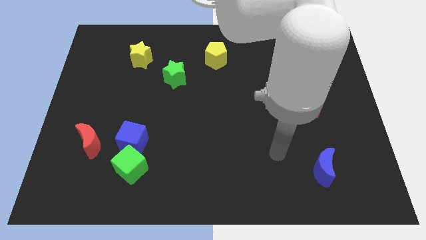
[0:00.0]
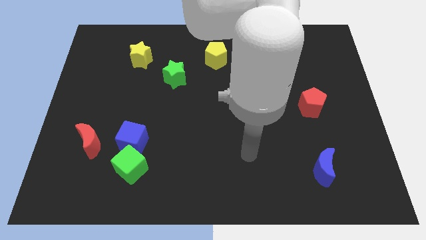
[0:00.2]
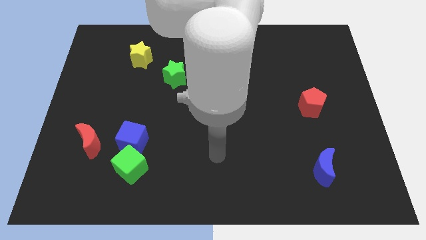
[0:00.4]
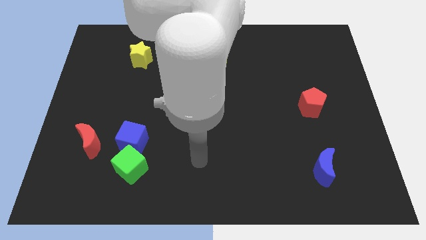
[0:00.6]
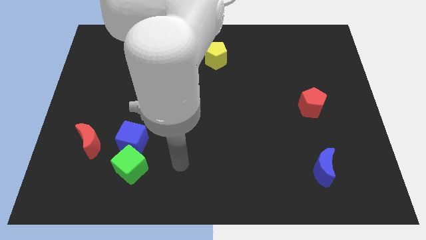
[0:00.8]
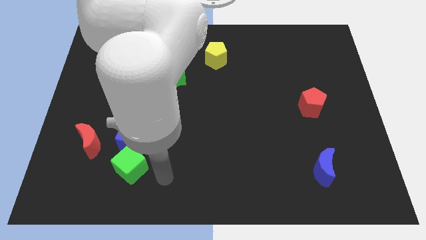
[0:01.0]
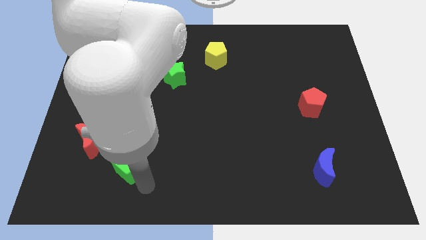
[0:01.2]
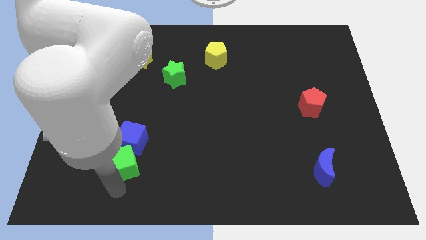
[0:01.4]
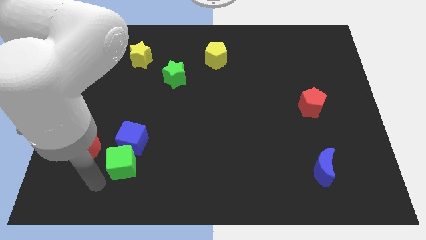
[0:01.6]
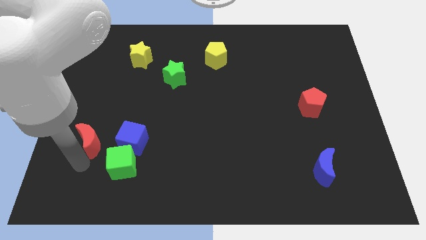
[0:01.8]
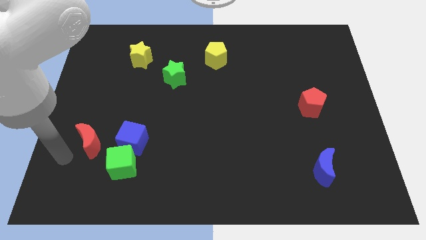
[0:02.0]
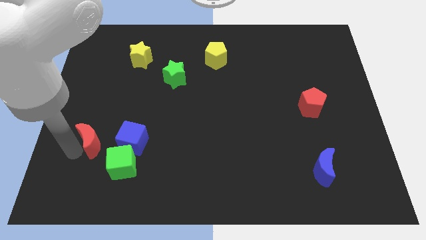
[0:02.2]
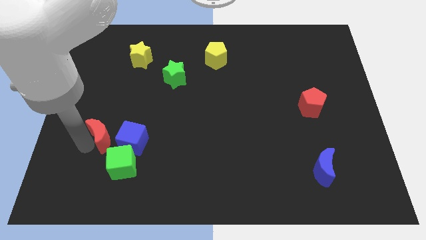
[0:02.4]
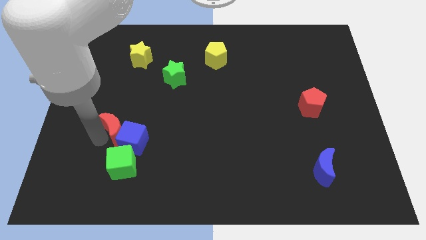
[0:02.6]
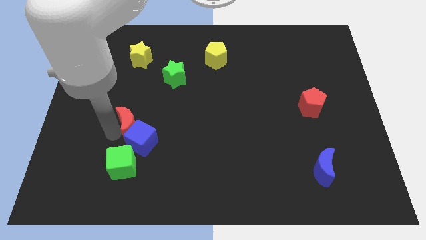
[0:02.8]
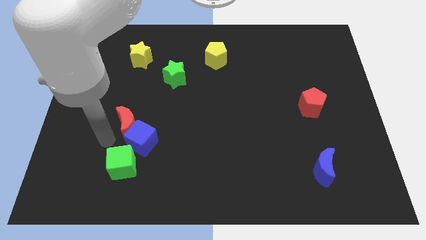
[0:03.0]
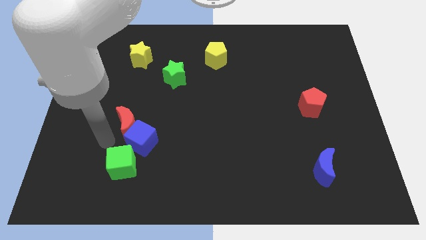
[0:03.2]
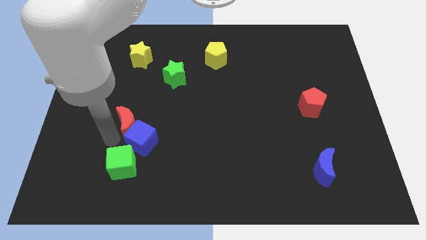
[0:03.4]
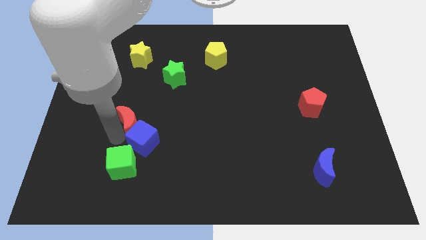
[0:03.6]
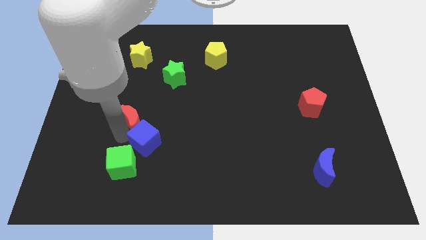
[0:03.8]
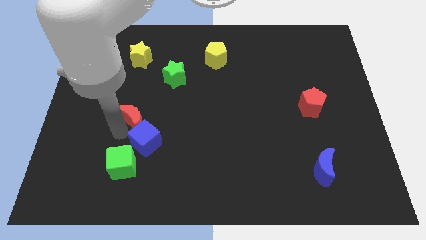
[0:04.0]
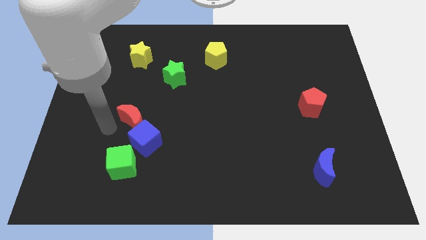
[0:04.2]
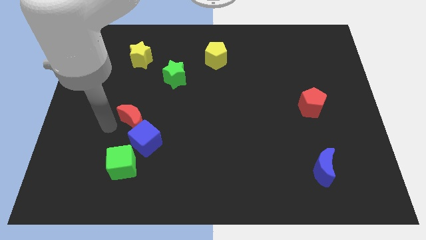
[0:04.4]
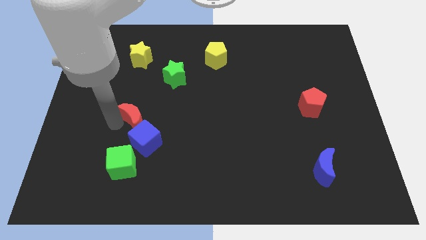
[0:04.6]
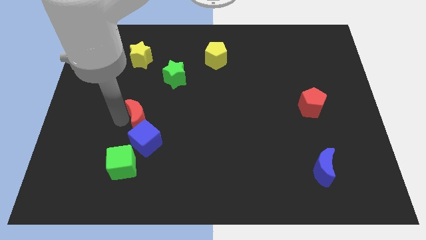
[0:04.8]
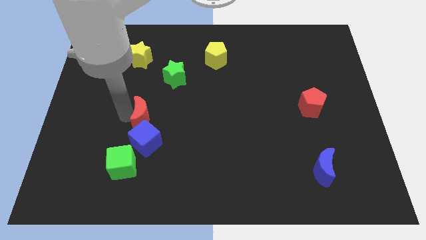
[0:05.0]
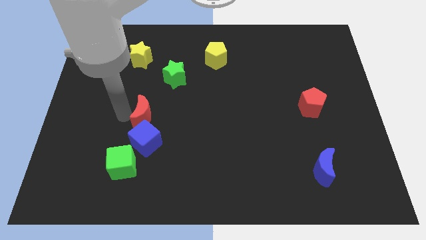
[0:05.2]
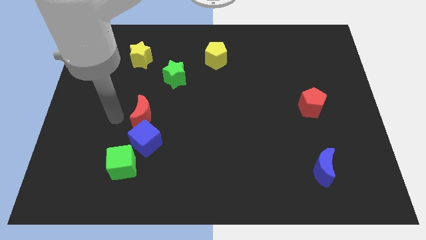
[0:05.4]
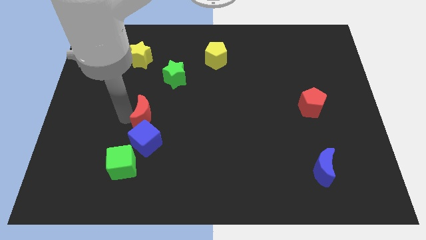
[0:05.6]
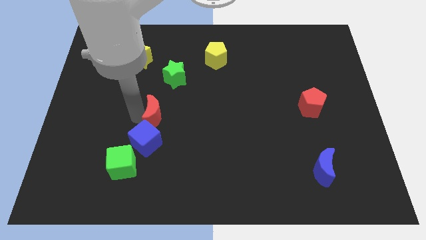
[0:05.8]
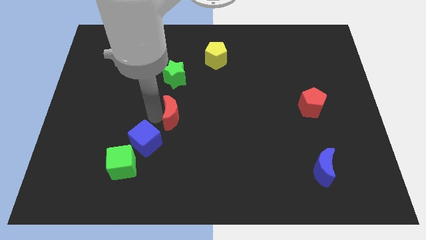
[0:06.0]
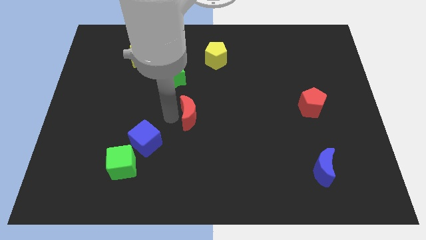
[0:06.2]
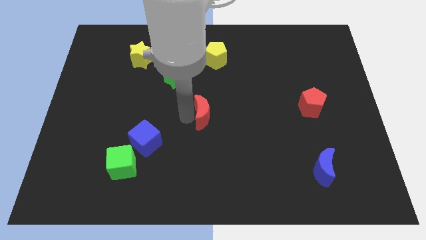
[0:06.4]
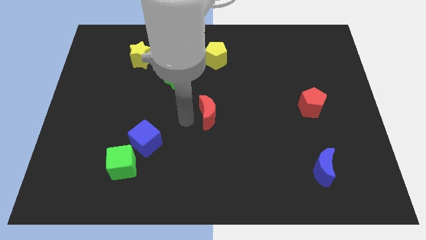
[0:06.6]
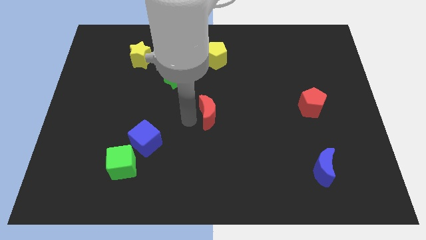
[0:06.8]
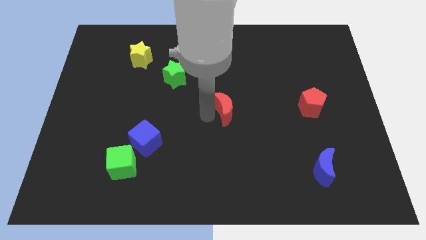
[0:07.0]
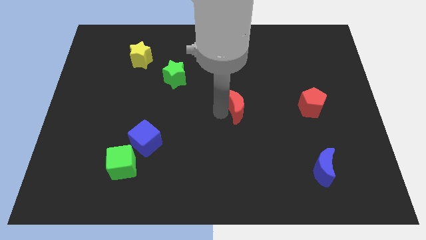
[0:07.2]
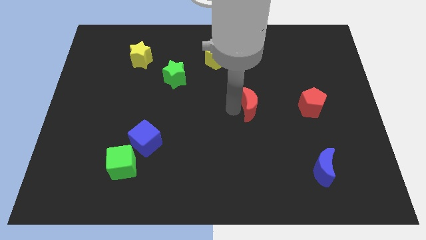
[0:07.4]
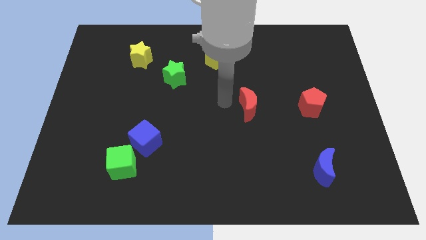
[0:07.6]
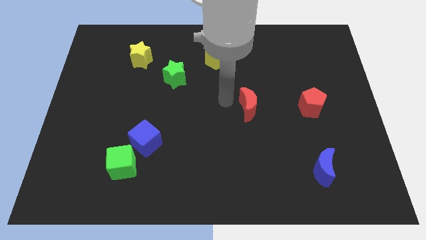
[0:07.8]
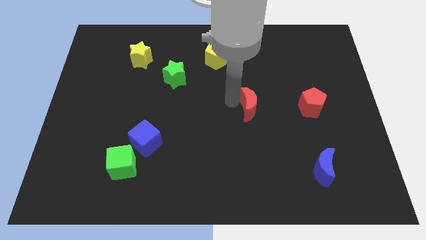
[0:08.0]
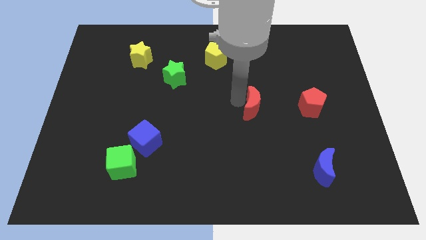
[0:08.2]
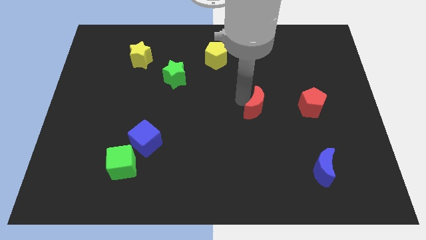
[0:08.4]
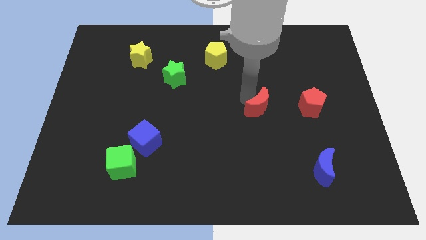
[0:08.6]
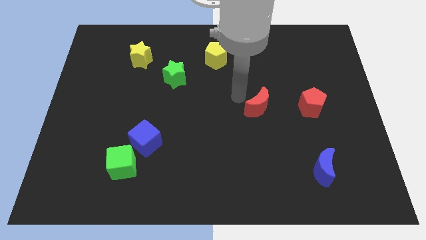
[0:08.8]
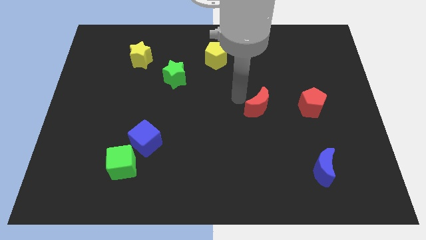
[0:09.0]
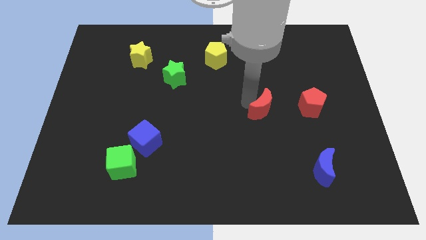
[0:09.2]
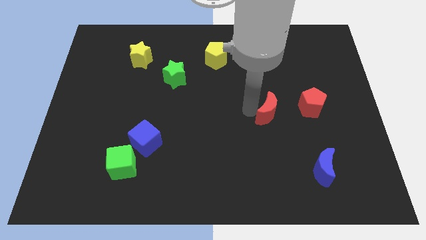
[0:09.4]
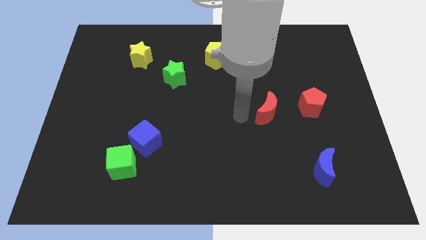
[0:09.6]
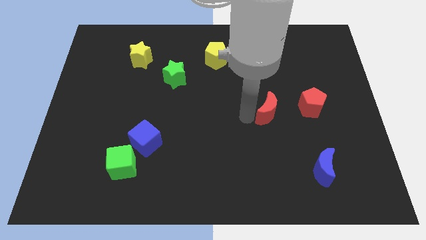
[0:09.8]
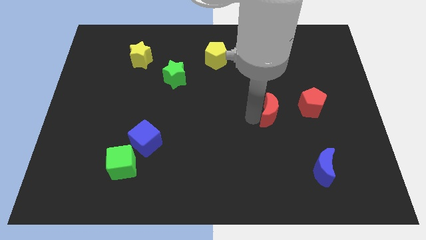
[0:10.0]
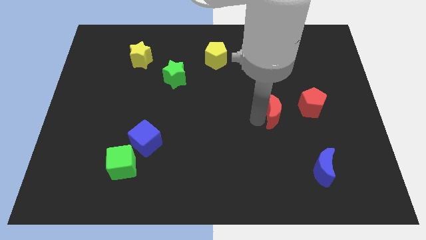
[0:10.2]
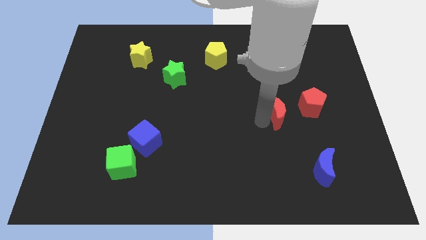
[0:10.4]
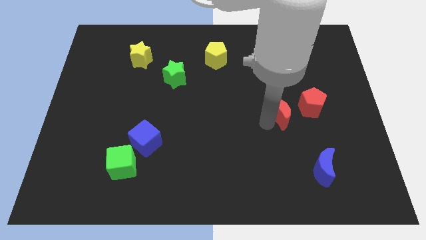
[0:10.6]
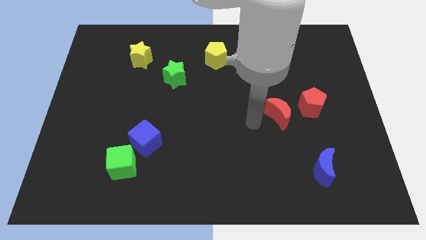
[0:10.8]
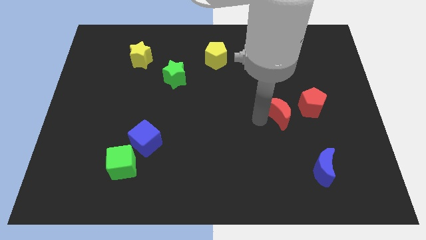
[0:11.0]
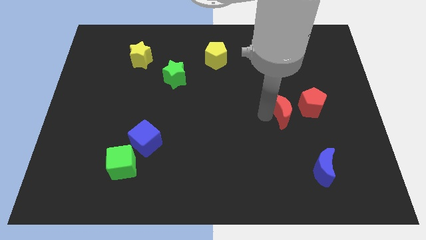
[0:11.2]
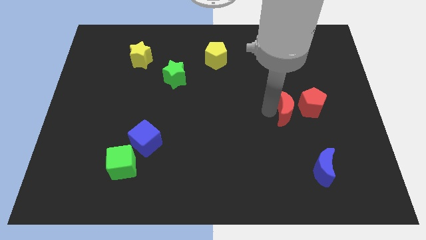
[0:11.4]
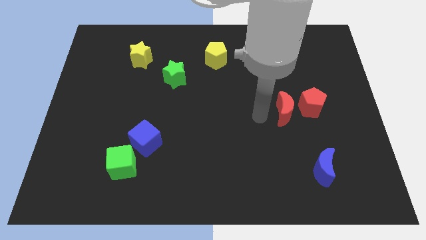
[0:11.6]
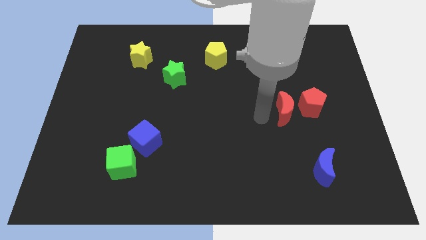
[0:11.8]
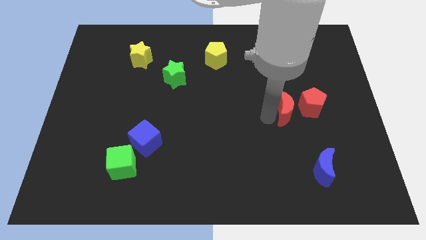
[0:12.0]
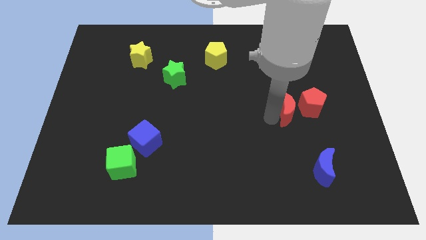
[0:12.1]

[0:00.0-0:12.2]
put the red moon to the red pentagon

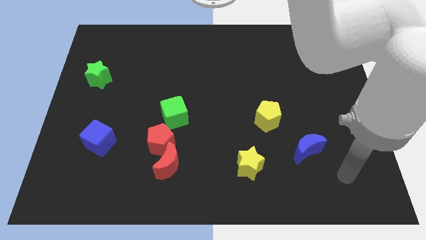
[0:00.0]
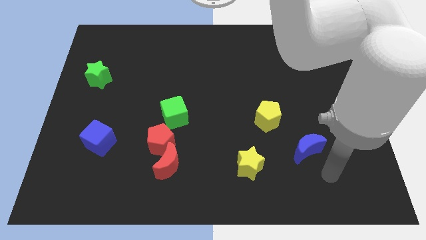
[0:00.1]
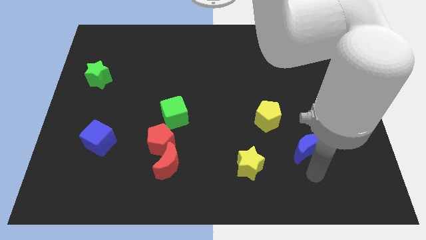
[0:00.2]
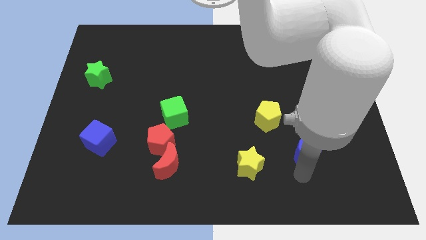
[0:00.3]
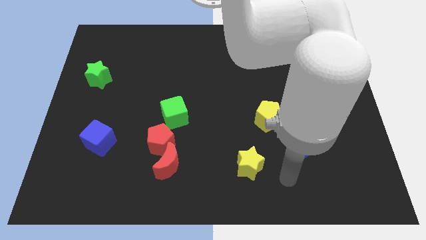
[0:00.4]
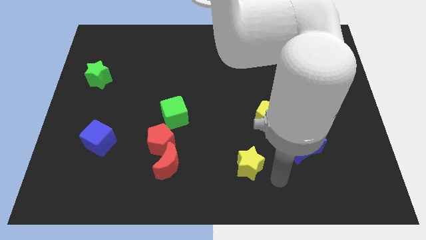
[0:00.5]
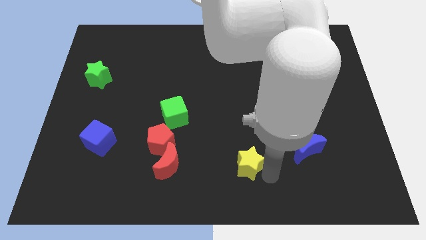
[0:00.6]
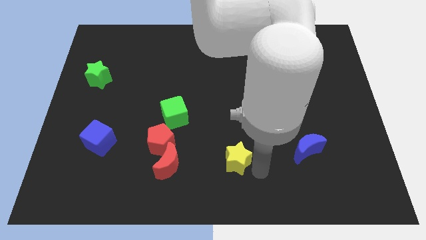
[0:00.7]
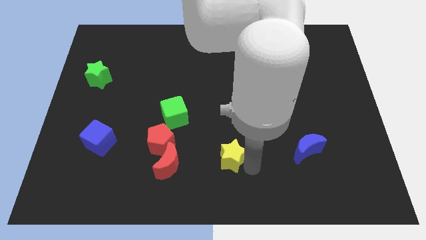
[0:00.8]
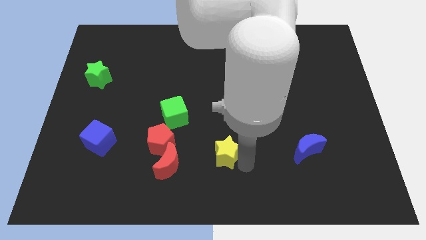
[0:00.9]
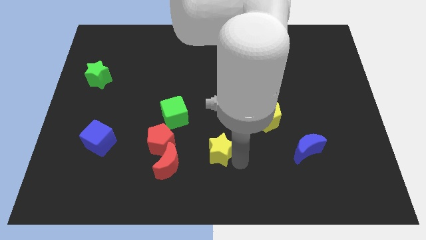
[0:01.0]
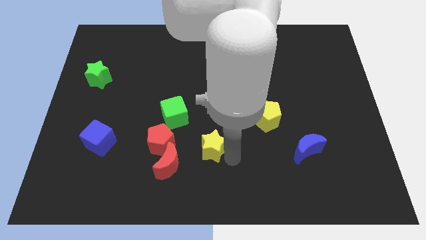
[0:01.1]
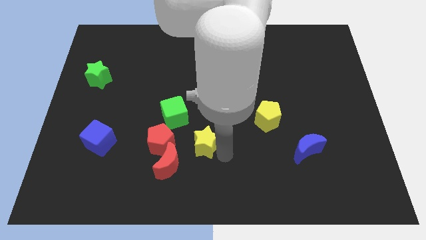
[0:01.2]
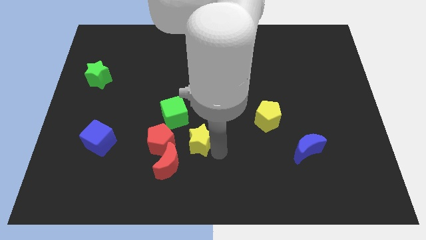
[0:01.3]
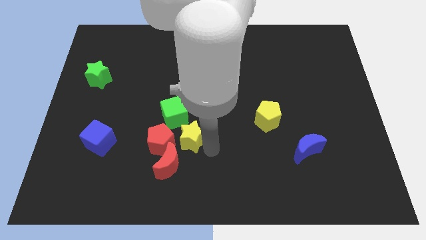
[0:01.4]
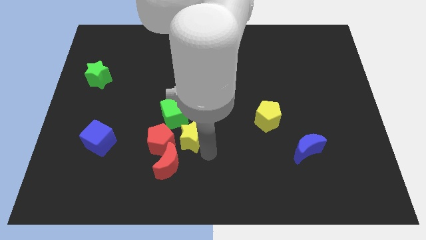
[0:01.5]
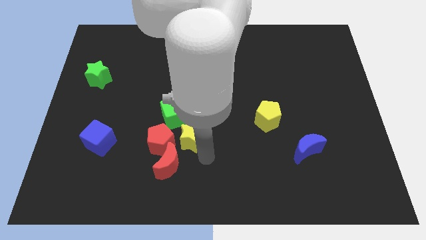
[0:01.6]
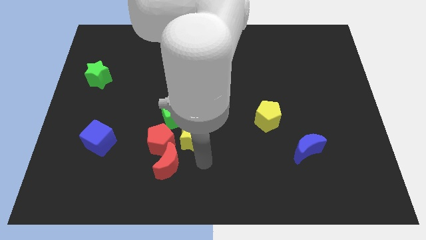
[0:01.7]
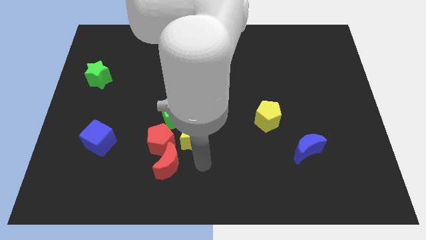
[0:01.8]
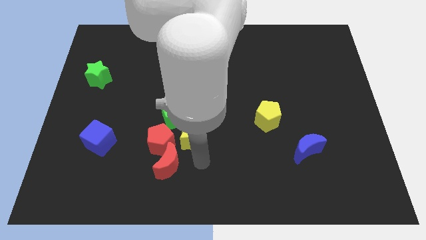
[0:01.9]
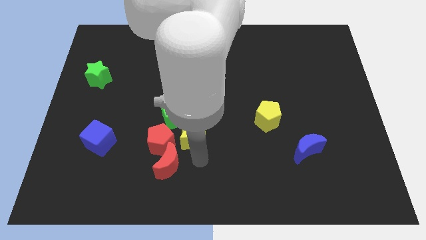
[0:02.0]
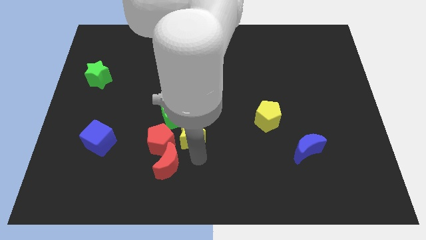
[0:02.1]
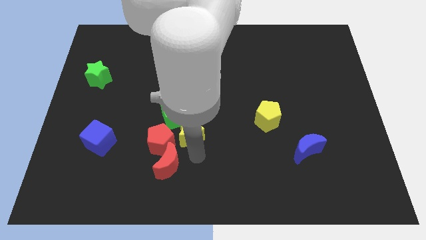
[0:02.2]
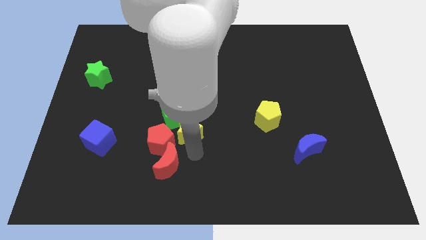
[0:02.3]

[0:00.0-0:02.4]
put the yellow star next to the green cube
